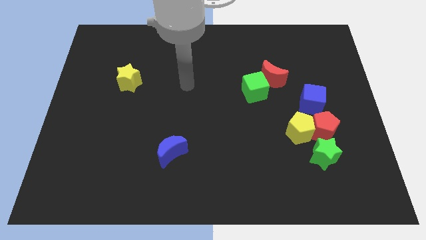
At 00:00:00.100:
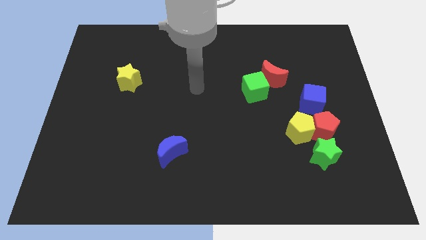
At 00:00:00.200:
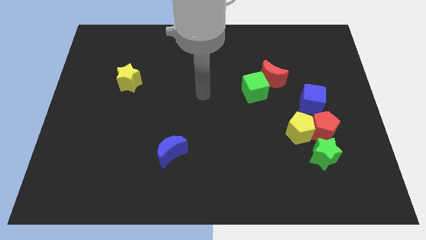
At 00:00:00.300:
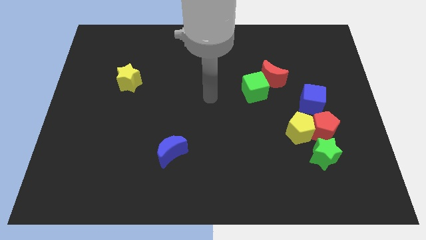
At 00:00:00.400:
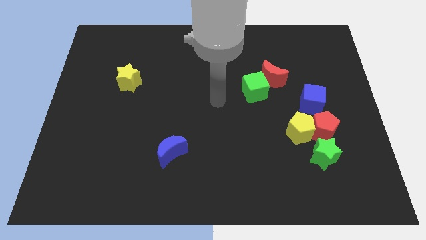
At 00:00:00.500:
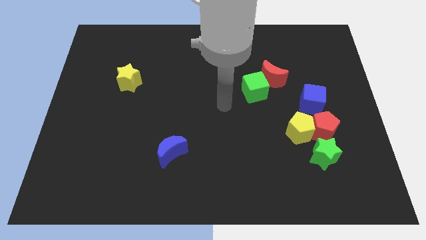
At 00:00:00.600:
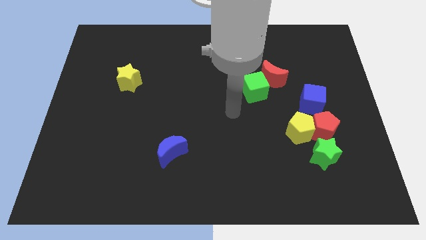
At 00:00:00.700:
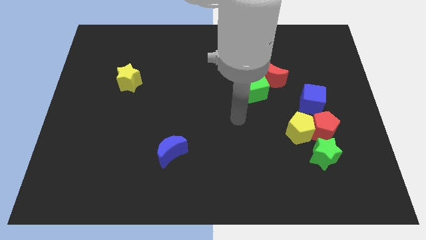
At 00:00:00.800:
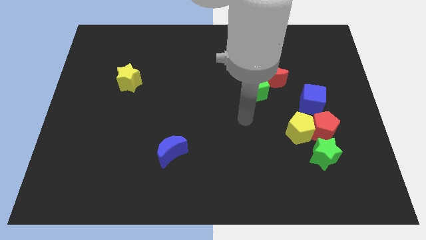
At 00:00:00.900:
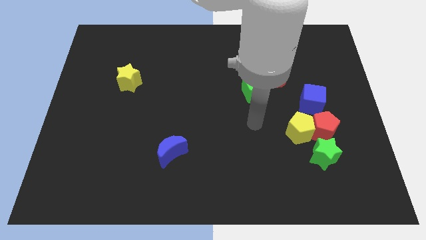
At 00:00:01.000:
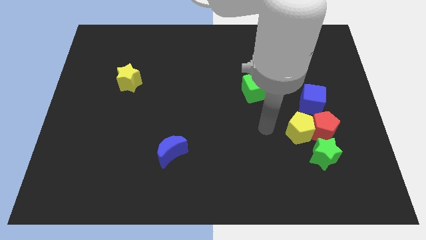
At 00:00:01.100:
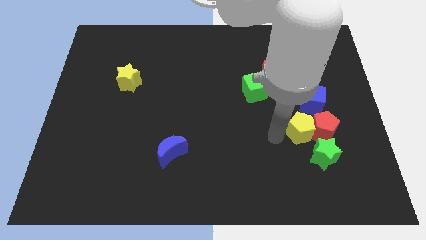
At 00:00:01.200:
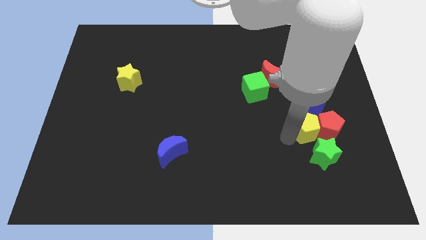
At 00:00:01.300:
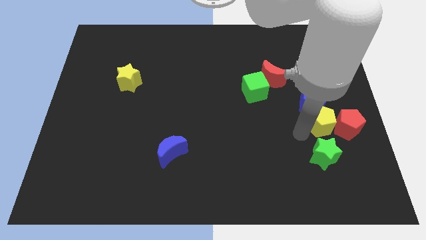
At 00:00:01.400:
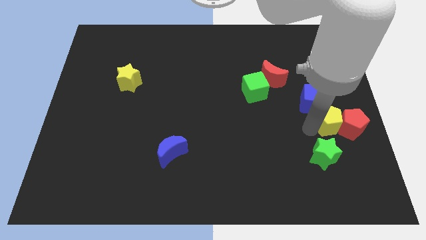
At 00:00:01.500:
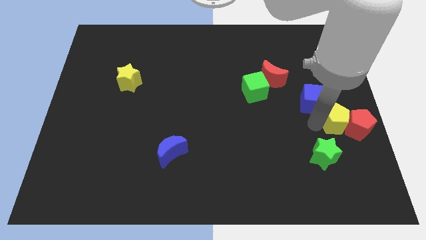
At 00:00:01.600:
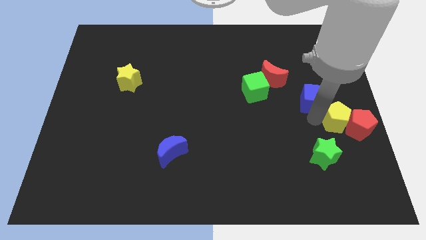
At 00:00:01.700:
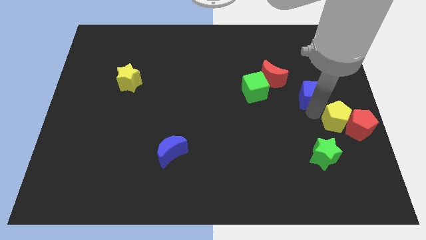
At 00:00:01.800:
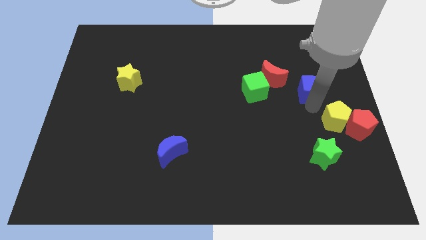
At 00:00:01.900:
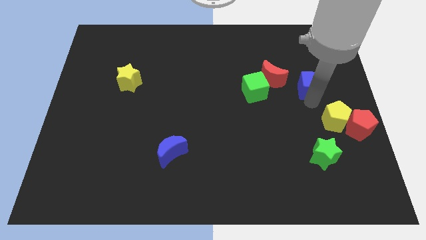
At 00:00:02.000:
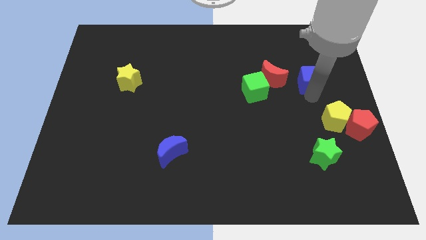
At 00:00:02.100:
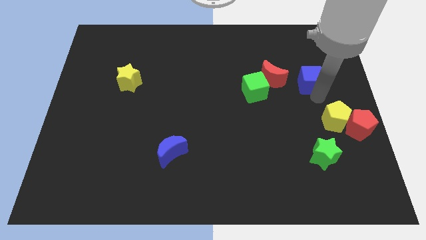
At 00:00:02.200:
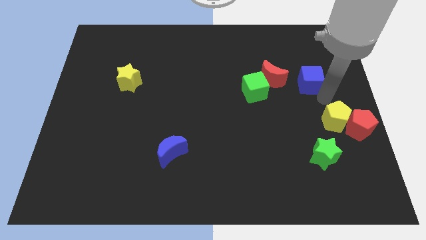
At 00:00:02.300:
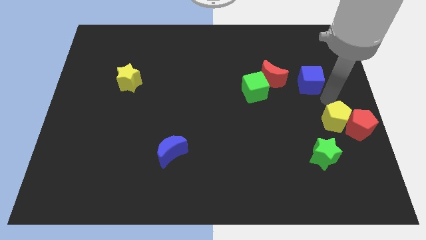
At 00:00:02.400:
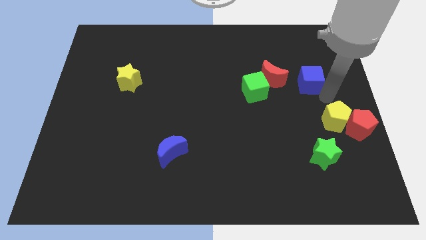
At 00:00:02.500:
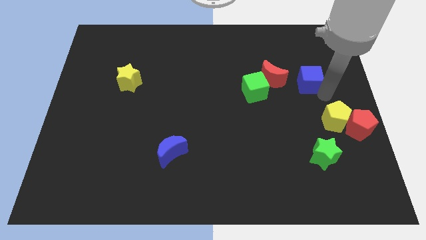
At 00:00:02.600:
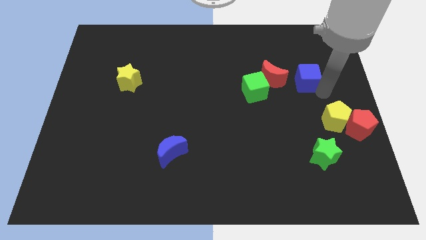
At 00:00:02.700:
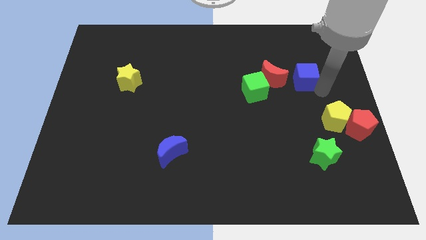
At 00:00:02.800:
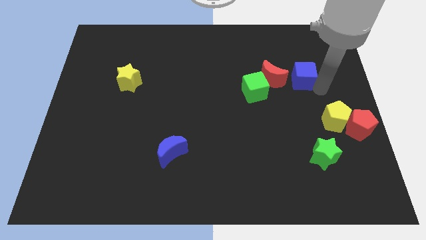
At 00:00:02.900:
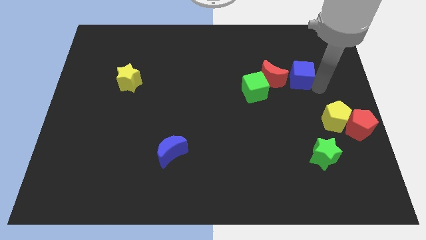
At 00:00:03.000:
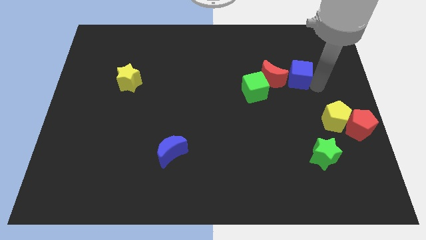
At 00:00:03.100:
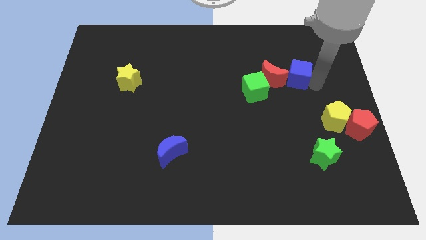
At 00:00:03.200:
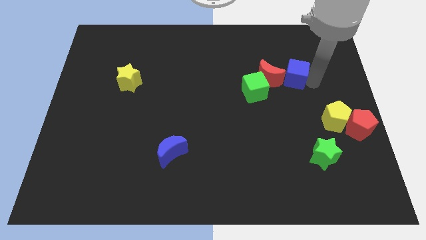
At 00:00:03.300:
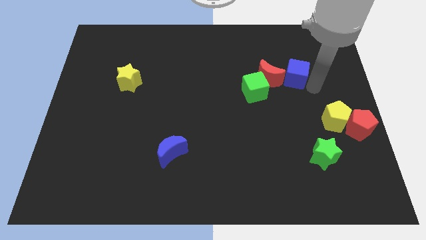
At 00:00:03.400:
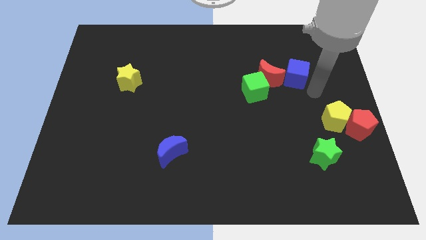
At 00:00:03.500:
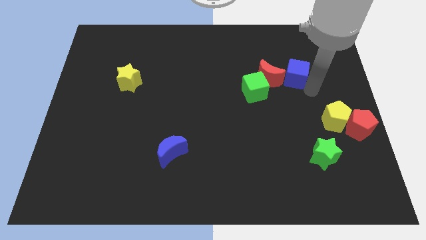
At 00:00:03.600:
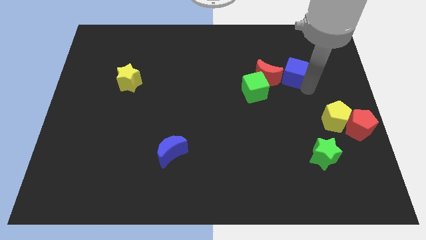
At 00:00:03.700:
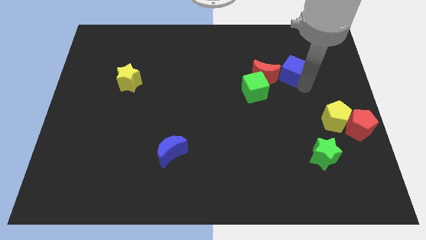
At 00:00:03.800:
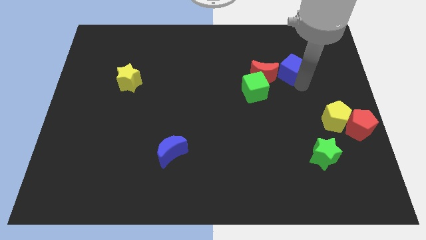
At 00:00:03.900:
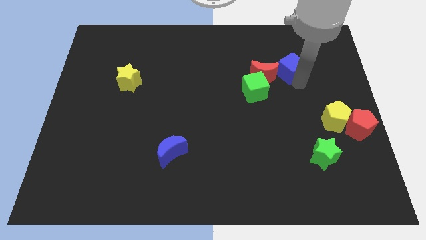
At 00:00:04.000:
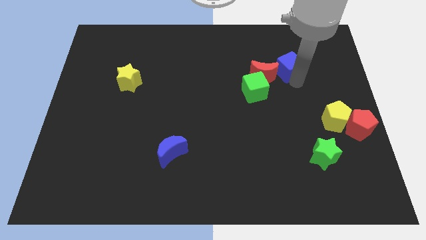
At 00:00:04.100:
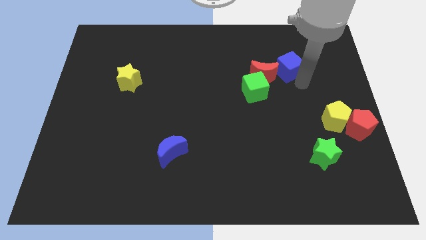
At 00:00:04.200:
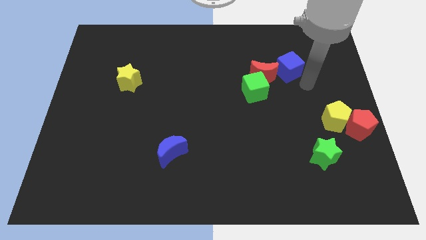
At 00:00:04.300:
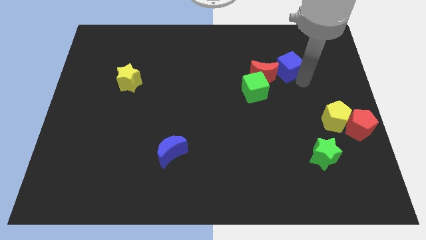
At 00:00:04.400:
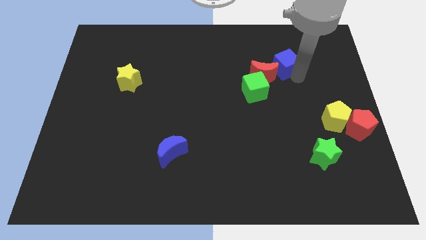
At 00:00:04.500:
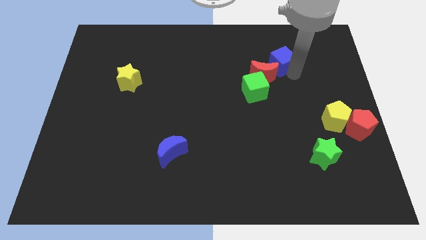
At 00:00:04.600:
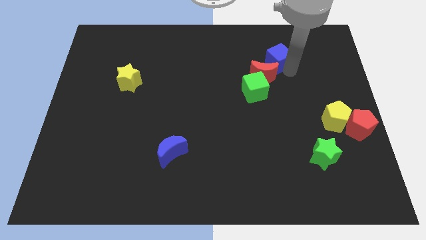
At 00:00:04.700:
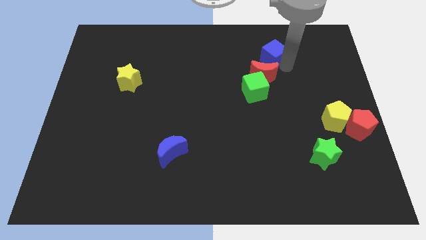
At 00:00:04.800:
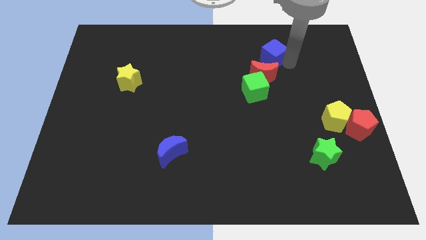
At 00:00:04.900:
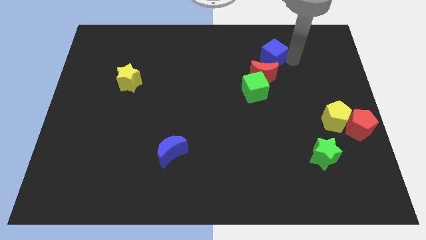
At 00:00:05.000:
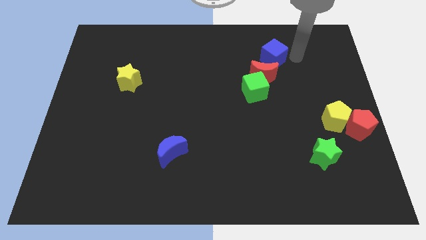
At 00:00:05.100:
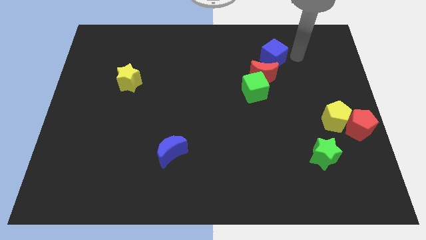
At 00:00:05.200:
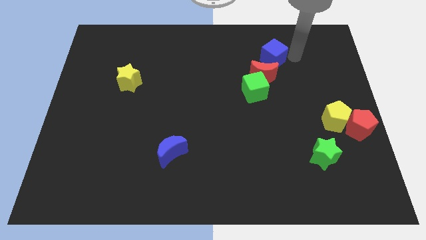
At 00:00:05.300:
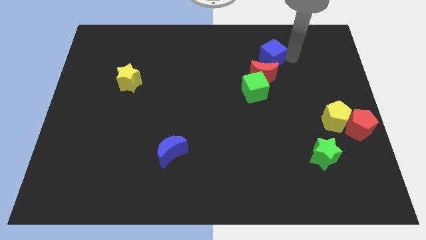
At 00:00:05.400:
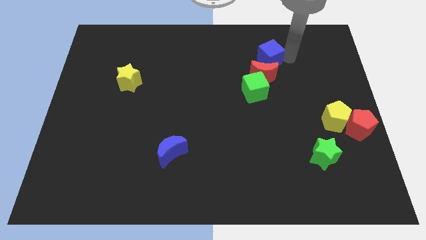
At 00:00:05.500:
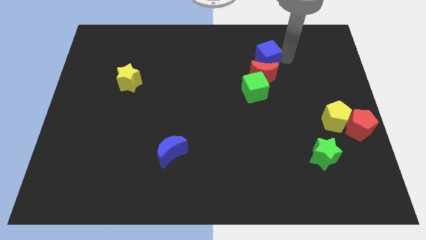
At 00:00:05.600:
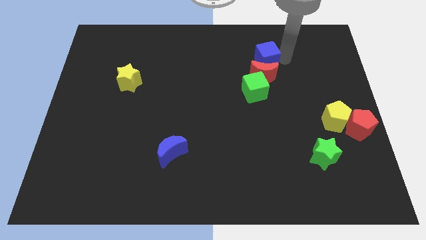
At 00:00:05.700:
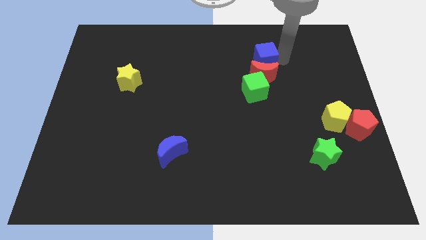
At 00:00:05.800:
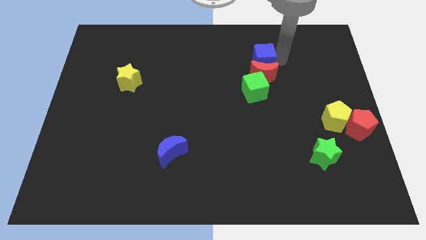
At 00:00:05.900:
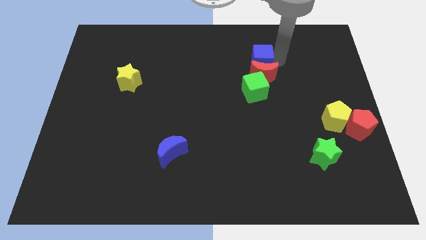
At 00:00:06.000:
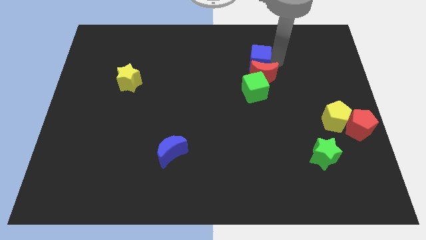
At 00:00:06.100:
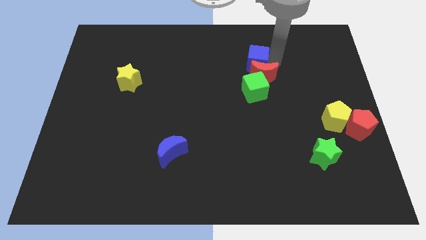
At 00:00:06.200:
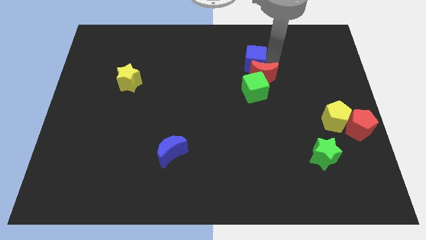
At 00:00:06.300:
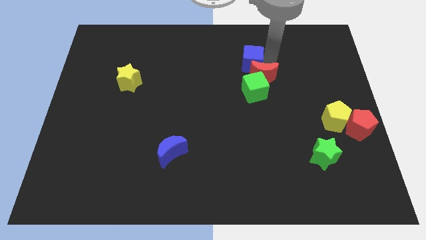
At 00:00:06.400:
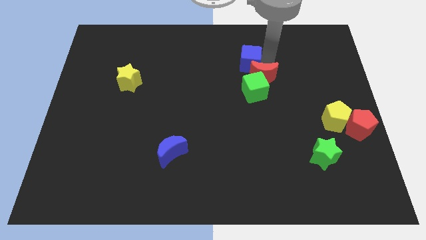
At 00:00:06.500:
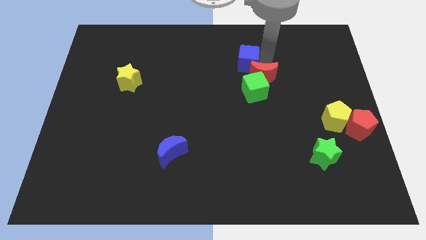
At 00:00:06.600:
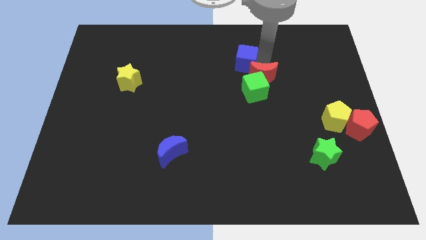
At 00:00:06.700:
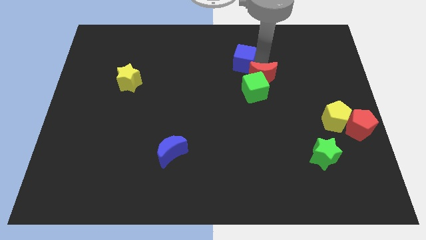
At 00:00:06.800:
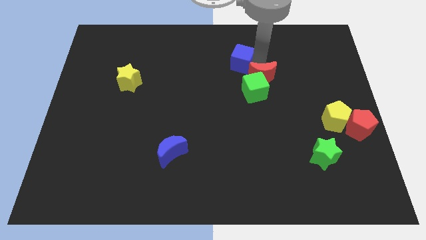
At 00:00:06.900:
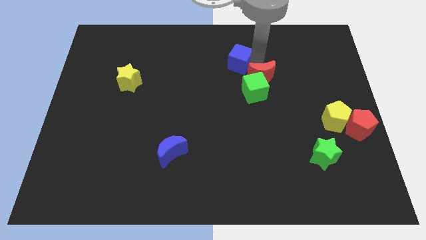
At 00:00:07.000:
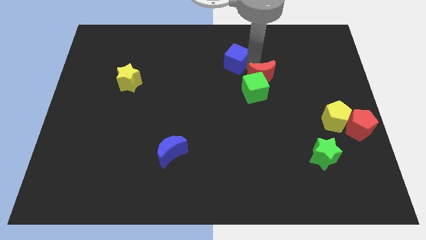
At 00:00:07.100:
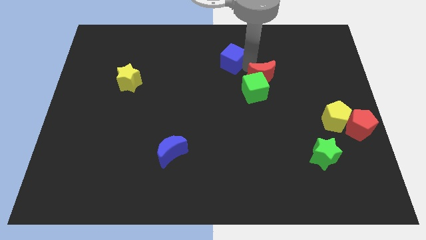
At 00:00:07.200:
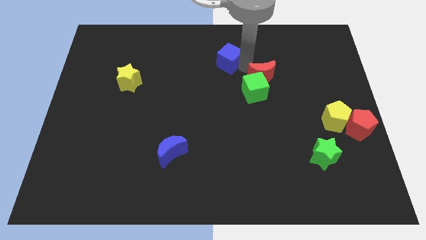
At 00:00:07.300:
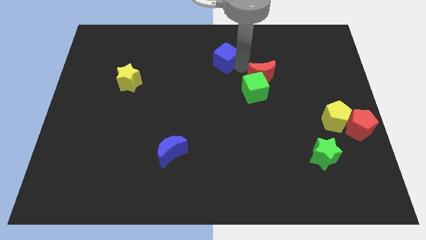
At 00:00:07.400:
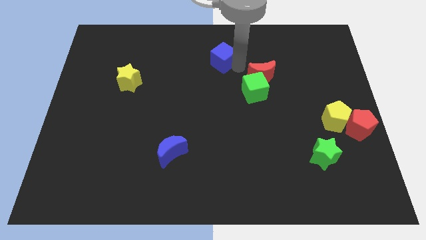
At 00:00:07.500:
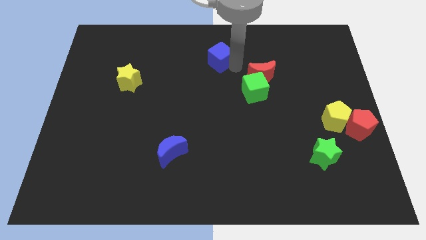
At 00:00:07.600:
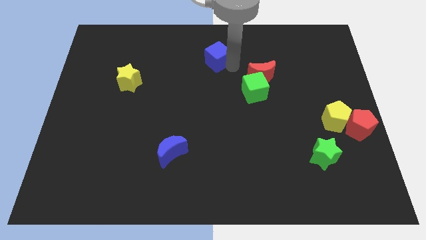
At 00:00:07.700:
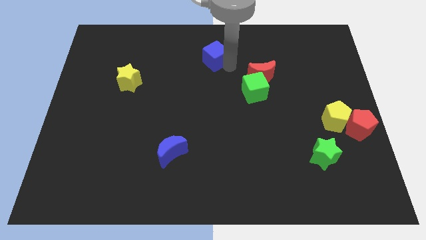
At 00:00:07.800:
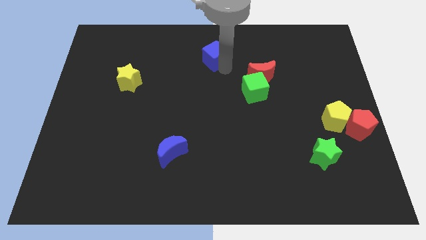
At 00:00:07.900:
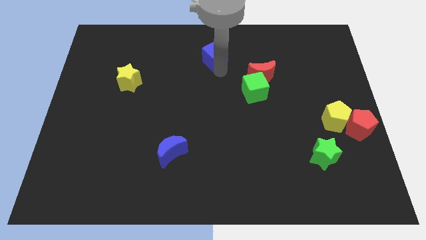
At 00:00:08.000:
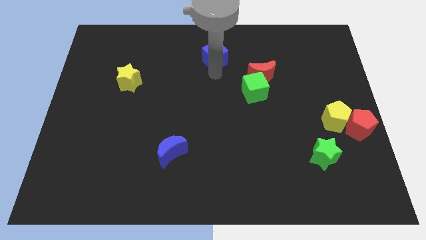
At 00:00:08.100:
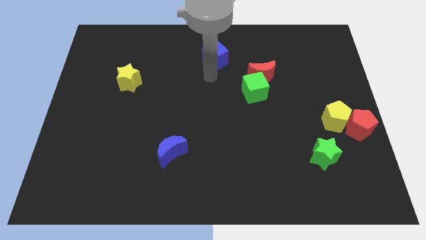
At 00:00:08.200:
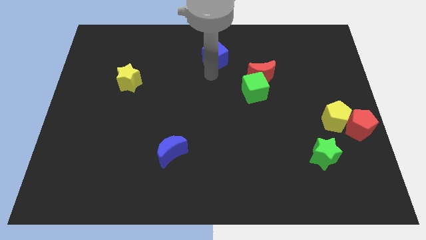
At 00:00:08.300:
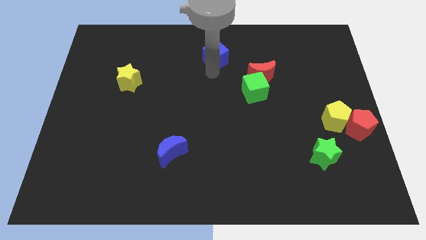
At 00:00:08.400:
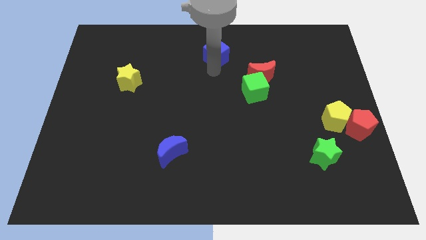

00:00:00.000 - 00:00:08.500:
slide the blue cube to the top
